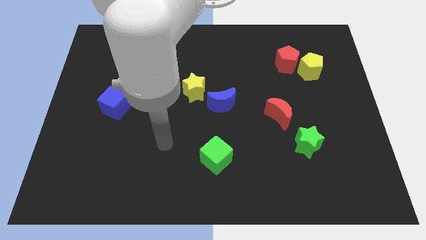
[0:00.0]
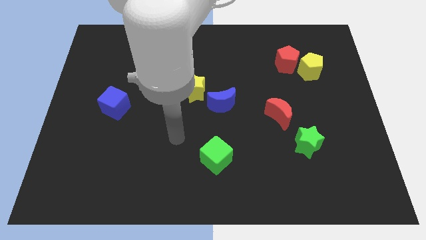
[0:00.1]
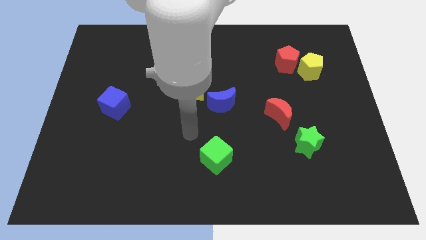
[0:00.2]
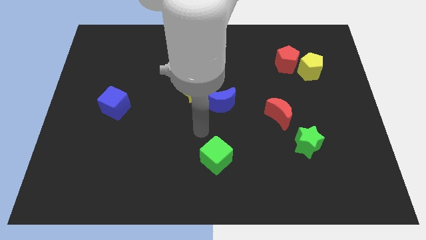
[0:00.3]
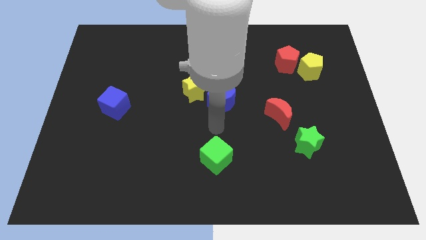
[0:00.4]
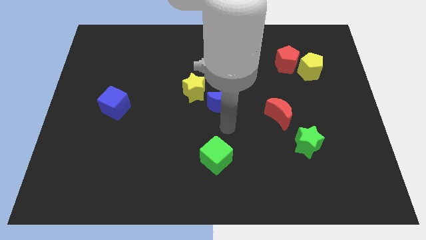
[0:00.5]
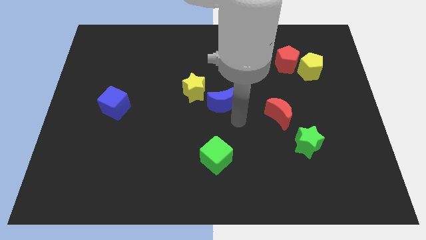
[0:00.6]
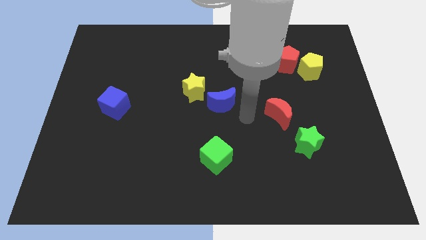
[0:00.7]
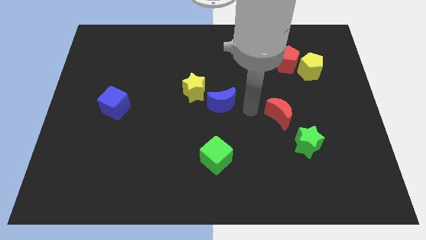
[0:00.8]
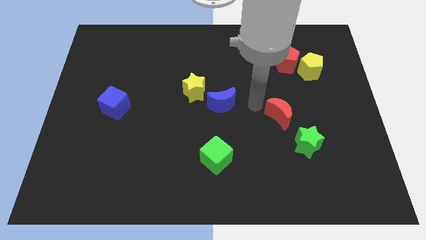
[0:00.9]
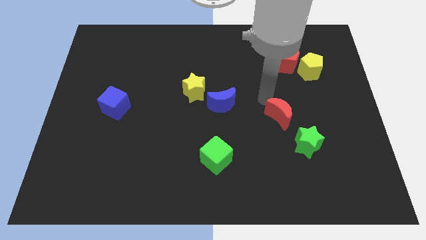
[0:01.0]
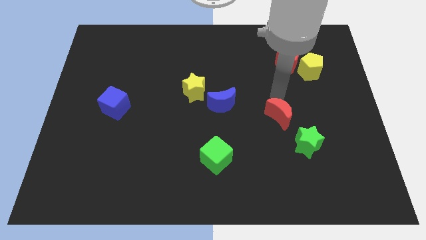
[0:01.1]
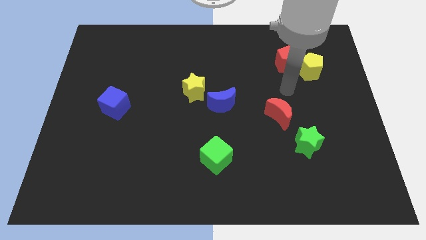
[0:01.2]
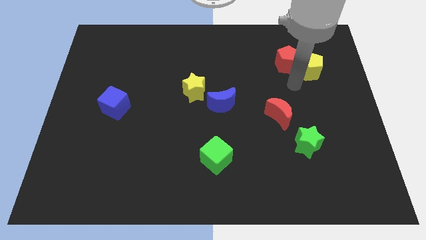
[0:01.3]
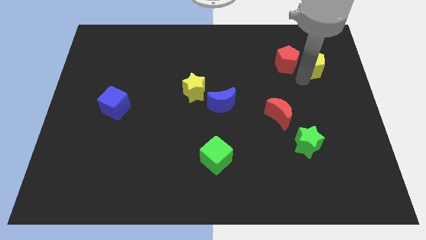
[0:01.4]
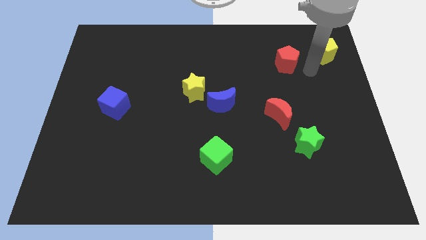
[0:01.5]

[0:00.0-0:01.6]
separate the red pentagon from the yellow pentagon

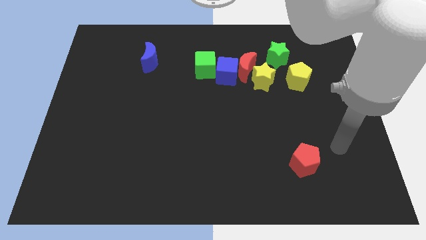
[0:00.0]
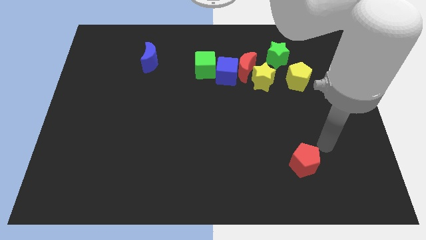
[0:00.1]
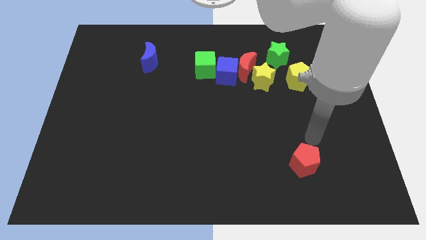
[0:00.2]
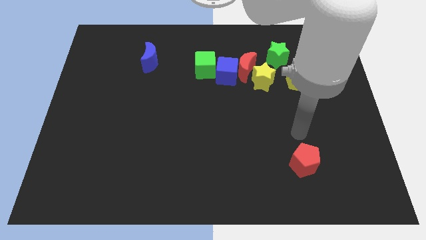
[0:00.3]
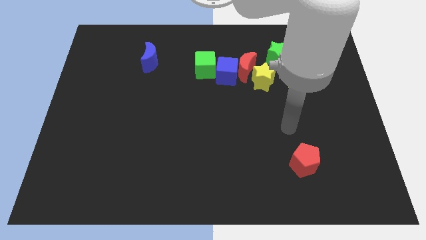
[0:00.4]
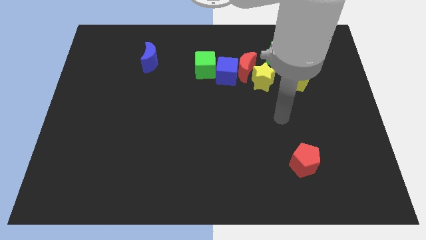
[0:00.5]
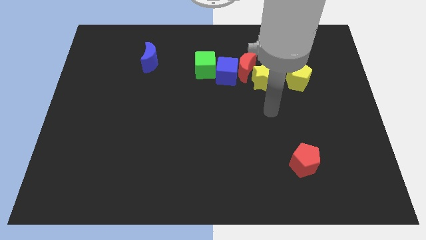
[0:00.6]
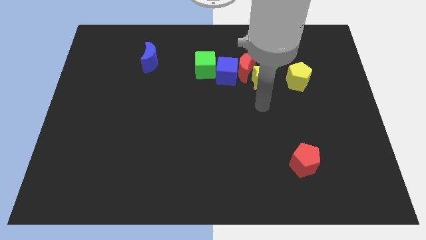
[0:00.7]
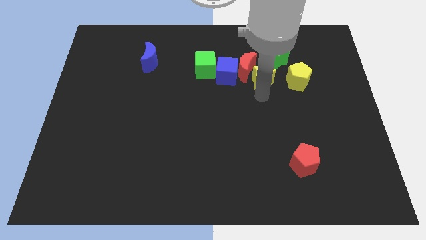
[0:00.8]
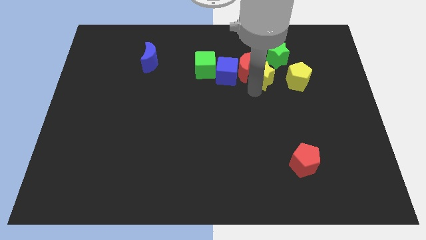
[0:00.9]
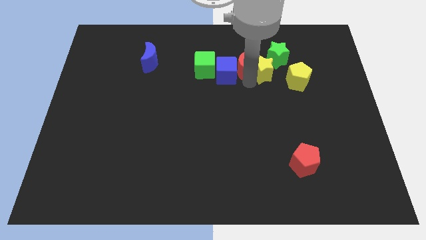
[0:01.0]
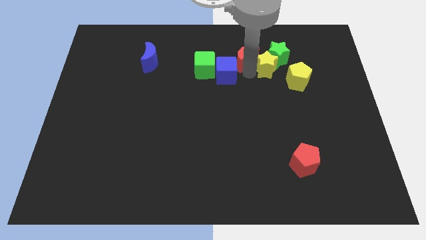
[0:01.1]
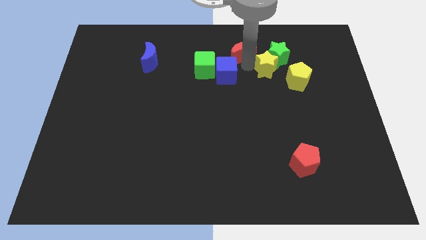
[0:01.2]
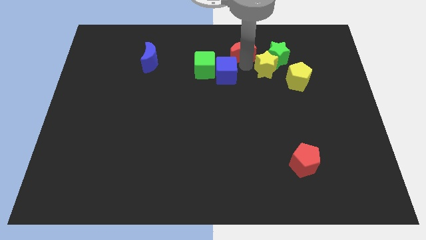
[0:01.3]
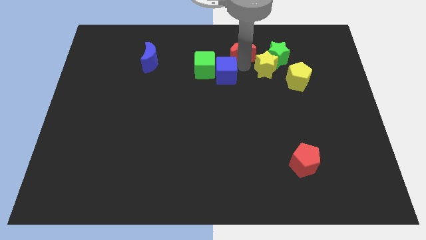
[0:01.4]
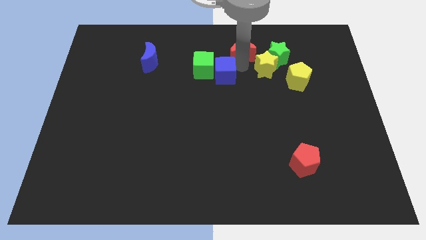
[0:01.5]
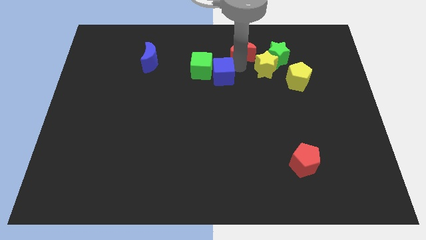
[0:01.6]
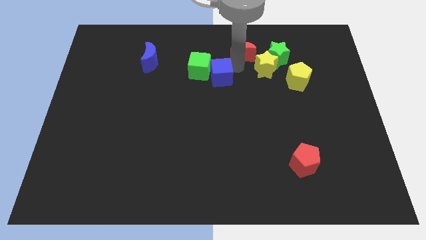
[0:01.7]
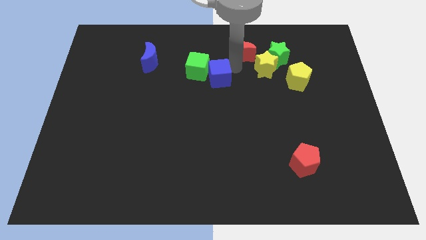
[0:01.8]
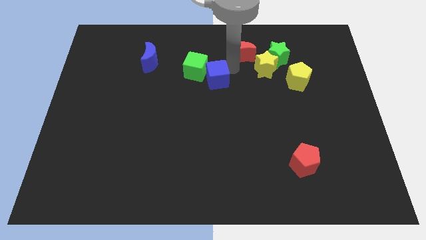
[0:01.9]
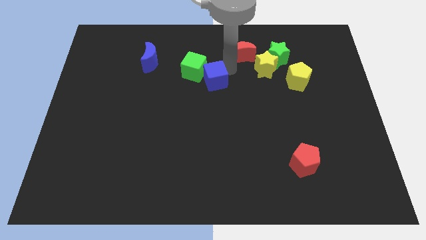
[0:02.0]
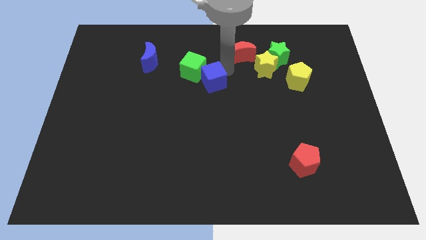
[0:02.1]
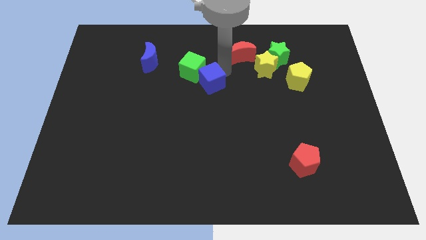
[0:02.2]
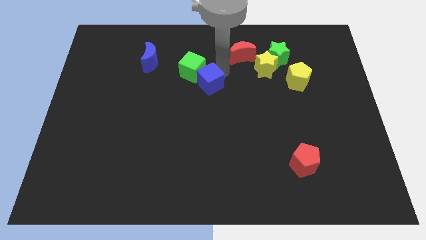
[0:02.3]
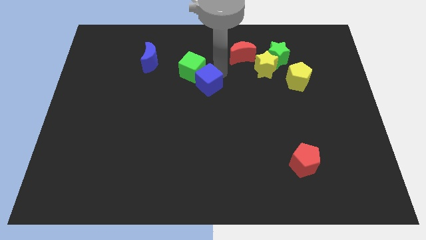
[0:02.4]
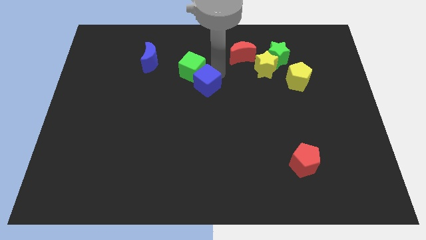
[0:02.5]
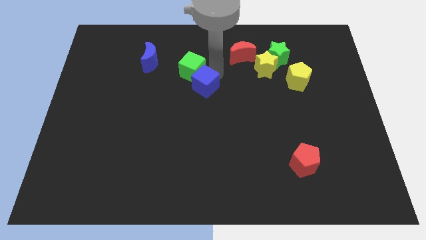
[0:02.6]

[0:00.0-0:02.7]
pull the blue cube apart from the red moon, green cube, and yellow star

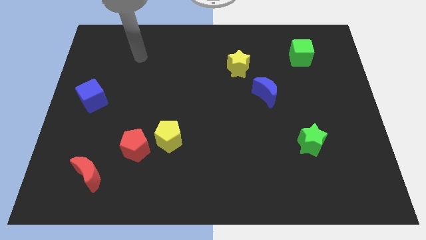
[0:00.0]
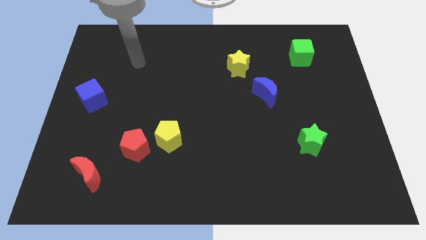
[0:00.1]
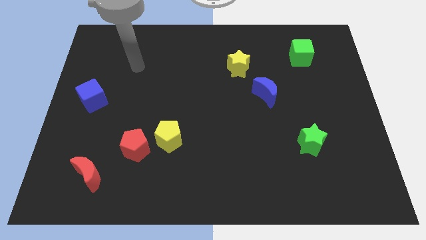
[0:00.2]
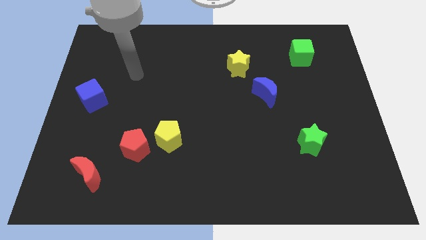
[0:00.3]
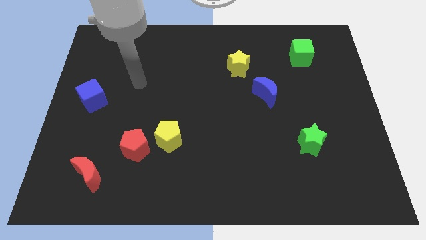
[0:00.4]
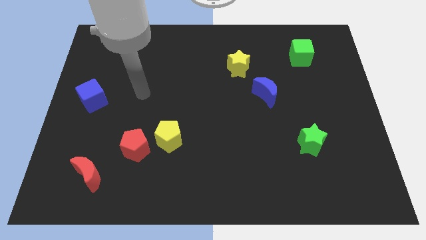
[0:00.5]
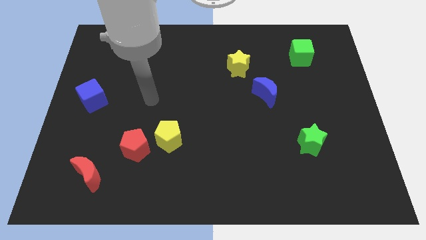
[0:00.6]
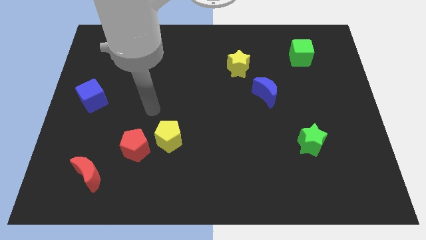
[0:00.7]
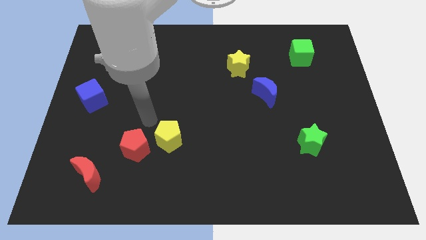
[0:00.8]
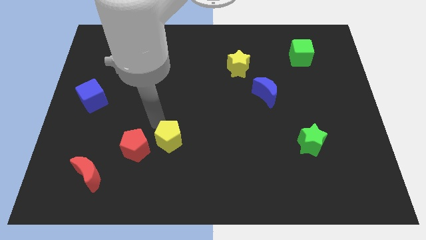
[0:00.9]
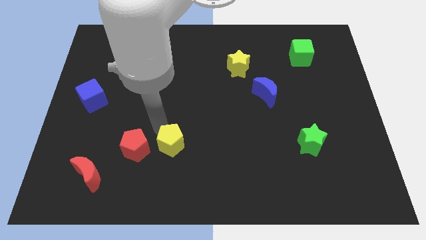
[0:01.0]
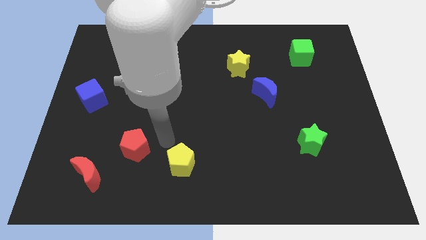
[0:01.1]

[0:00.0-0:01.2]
move the red pentagon away from the yellow pentagon

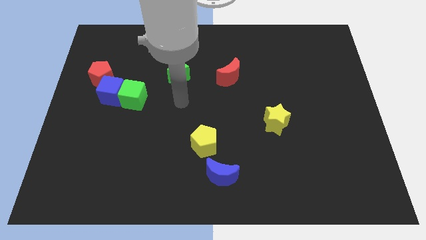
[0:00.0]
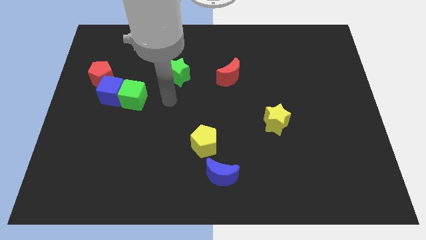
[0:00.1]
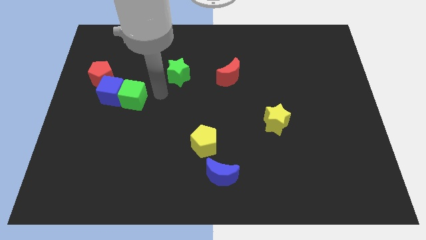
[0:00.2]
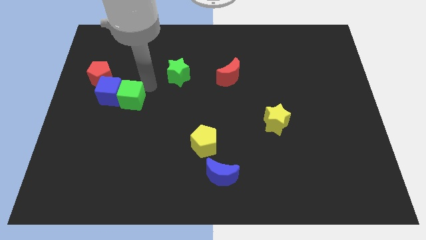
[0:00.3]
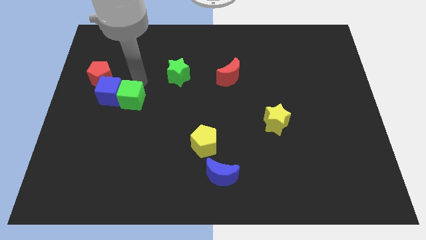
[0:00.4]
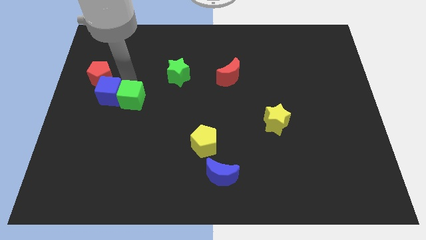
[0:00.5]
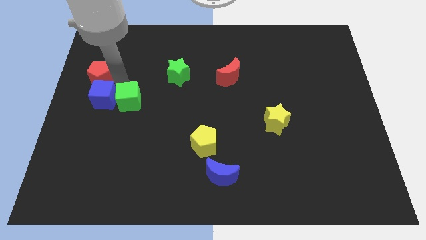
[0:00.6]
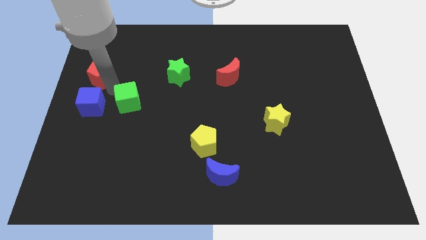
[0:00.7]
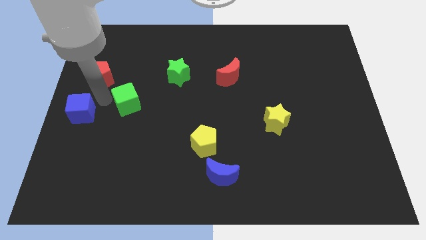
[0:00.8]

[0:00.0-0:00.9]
separate the green cube from the blue cube

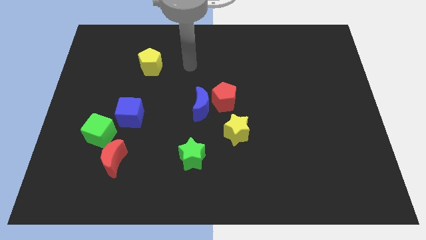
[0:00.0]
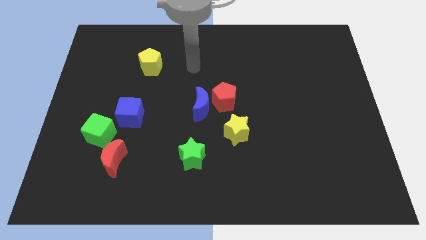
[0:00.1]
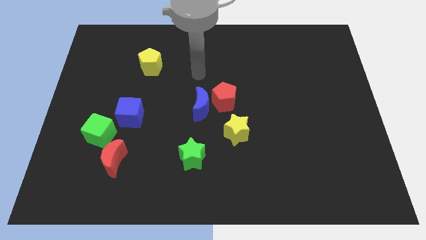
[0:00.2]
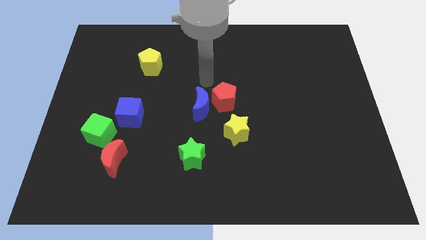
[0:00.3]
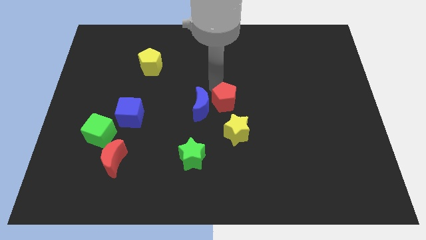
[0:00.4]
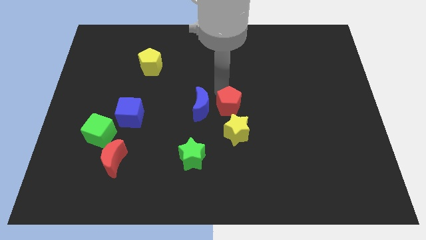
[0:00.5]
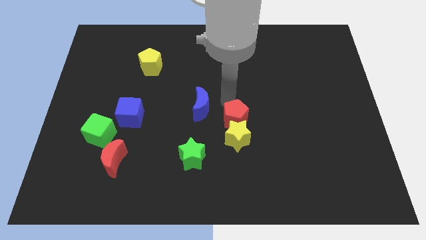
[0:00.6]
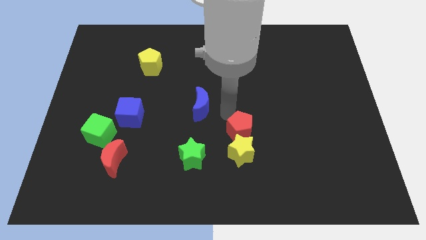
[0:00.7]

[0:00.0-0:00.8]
pull the blue moon apart from the red pentagon

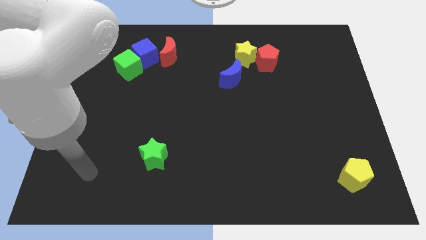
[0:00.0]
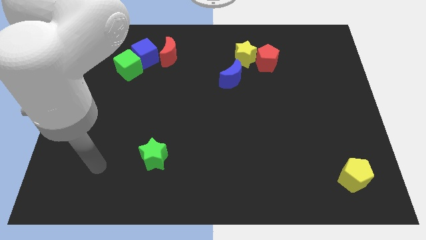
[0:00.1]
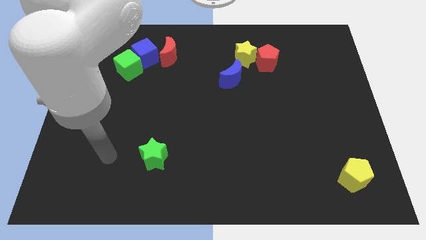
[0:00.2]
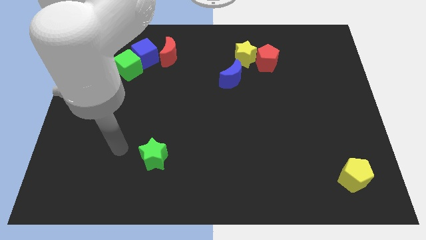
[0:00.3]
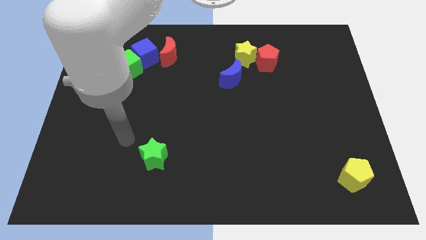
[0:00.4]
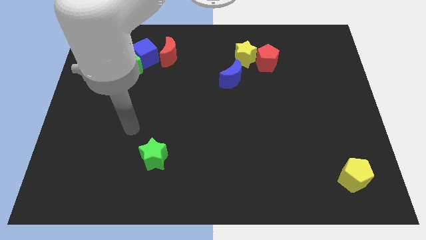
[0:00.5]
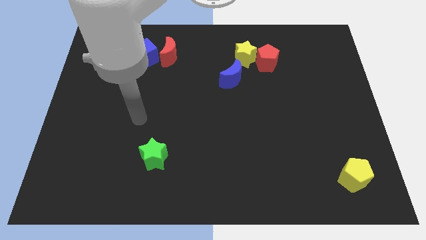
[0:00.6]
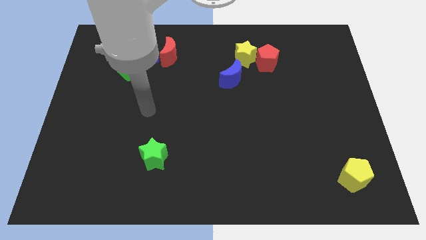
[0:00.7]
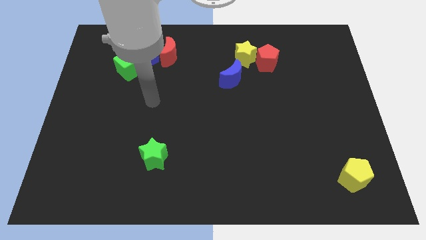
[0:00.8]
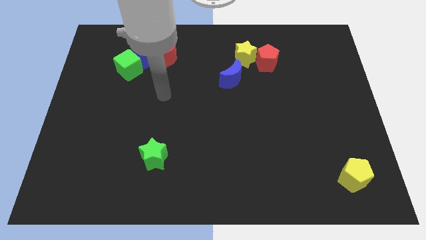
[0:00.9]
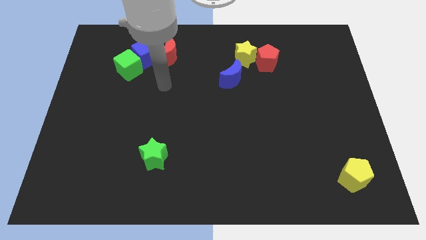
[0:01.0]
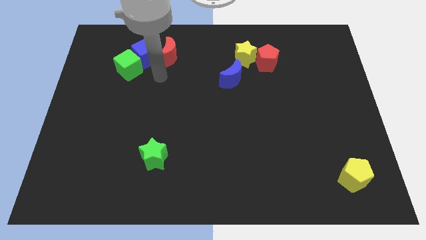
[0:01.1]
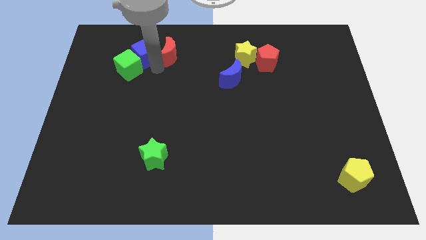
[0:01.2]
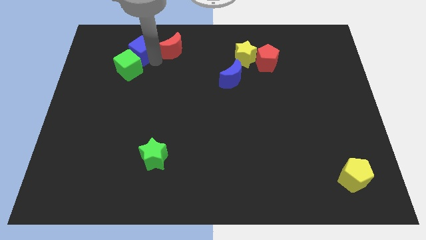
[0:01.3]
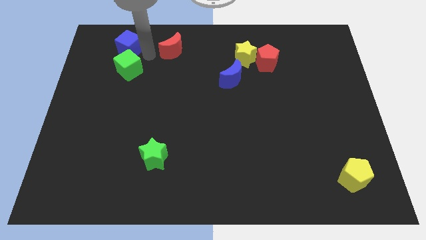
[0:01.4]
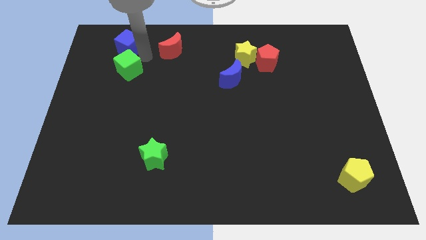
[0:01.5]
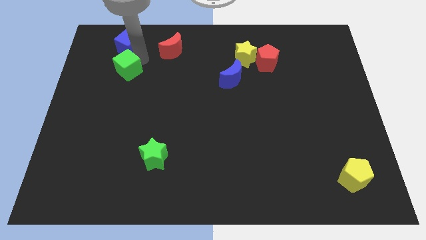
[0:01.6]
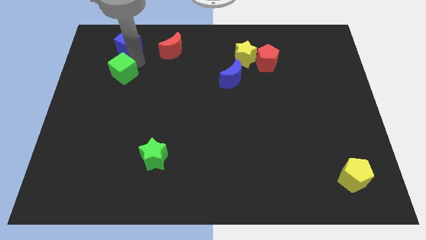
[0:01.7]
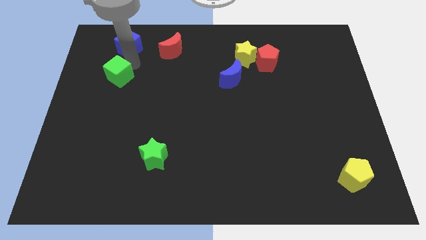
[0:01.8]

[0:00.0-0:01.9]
pull the green cube apart from the blue cube

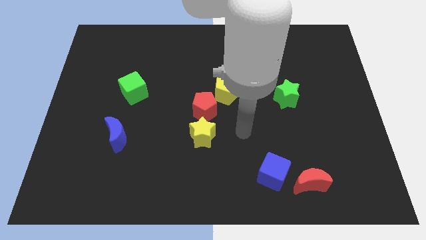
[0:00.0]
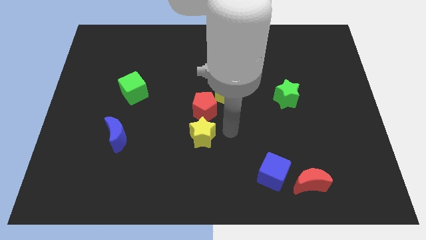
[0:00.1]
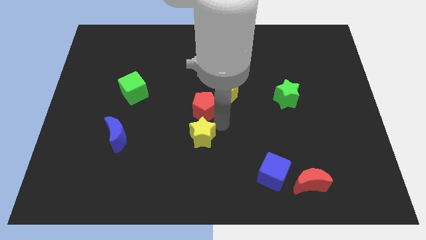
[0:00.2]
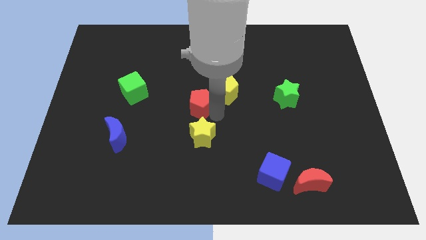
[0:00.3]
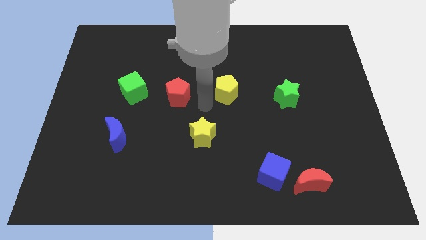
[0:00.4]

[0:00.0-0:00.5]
separate the yellow pentagon from the red pentagon
